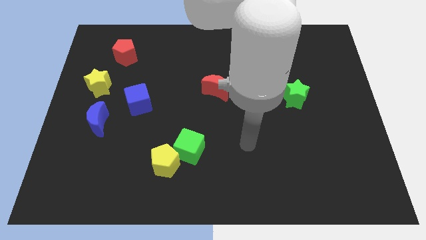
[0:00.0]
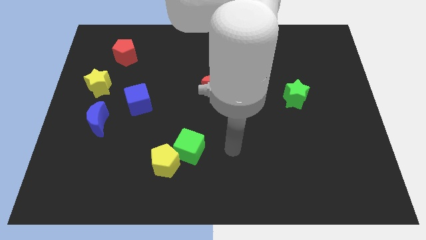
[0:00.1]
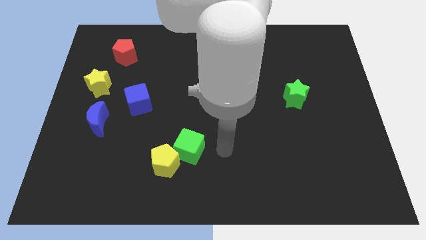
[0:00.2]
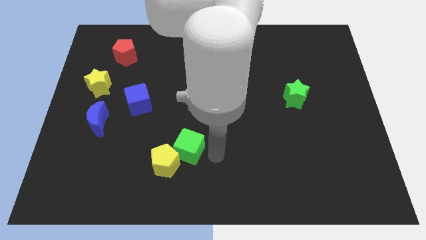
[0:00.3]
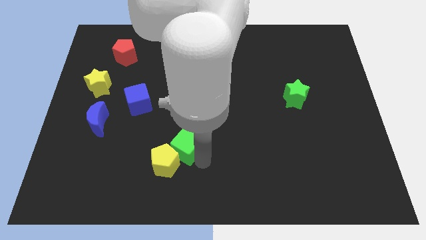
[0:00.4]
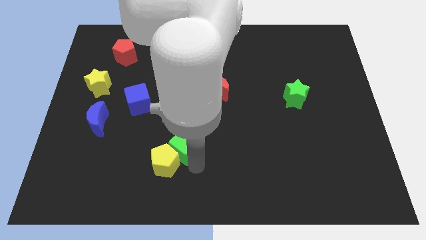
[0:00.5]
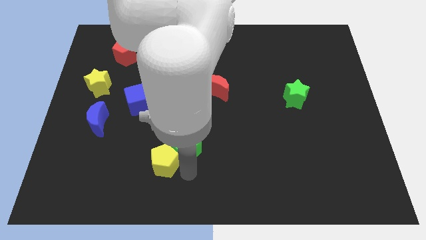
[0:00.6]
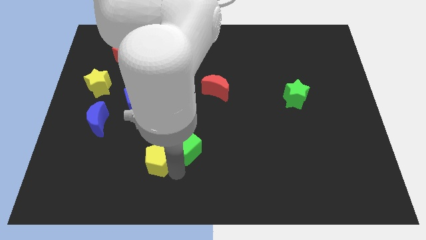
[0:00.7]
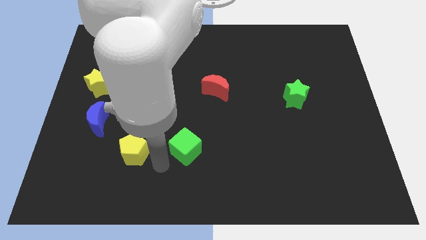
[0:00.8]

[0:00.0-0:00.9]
separate the green cube from the yellow pentagon

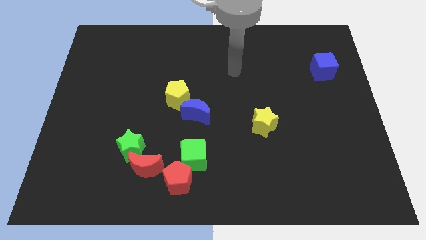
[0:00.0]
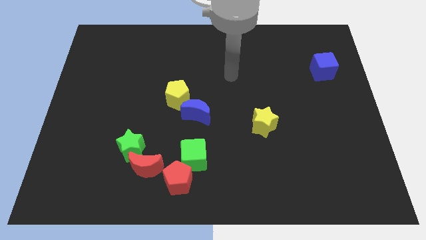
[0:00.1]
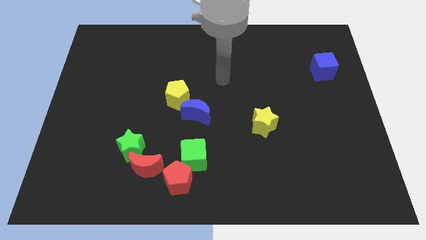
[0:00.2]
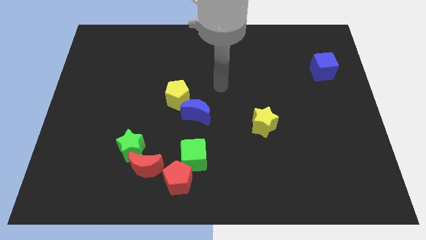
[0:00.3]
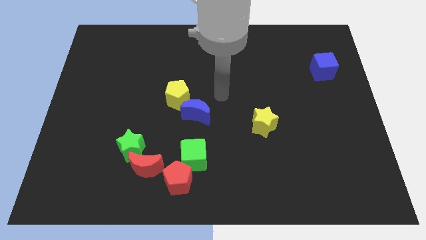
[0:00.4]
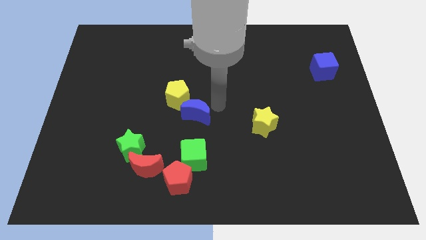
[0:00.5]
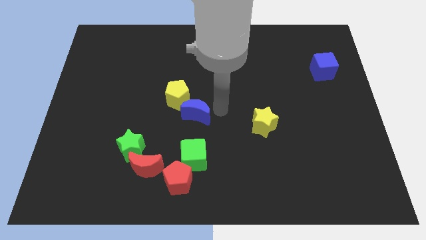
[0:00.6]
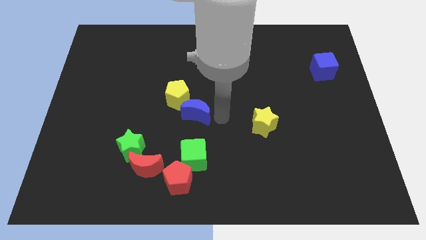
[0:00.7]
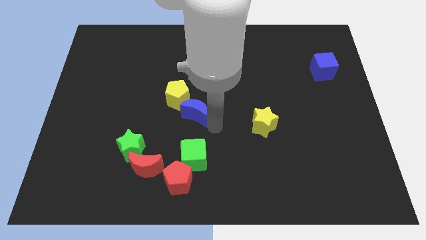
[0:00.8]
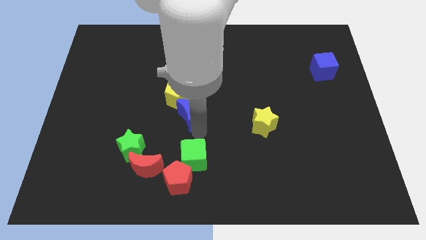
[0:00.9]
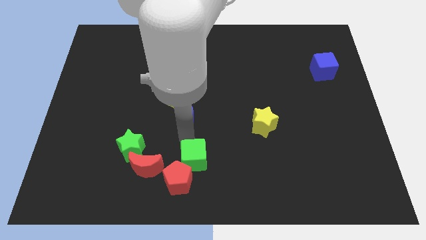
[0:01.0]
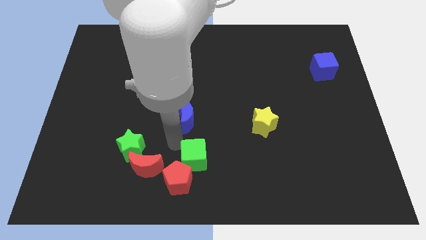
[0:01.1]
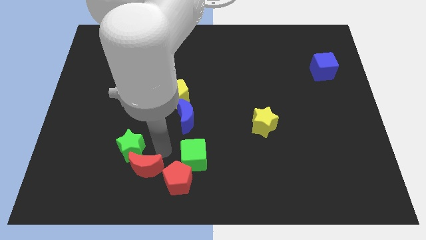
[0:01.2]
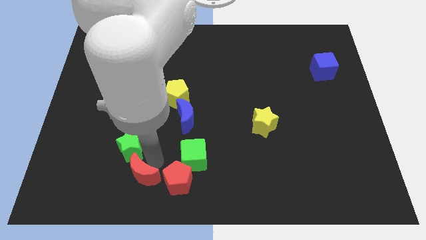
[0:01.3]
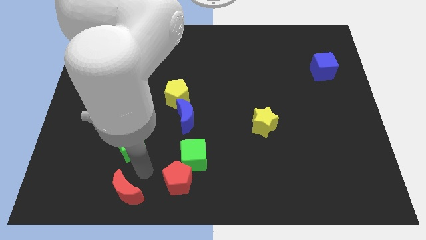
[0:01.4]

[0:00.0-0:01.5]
separate the green star from the red moon

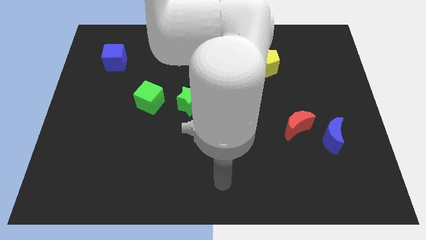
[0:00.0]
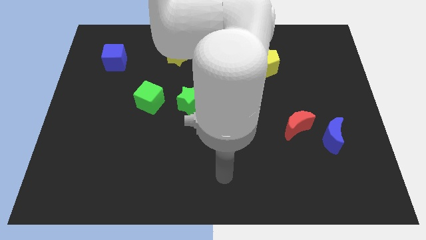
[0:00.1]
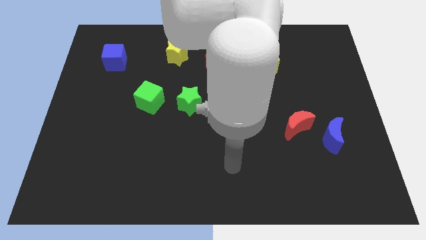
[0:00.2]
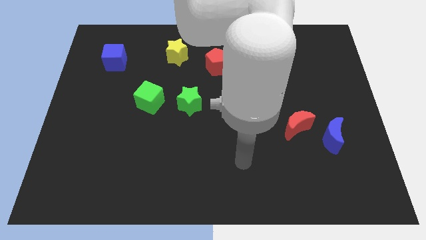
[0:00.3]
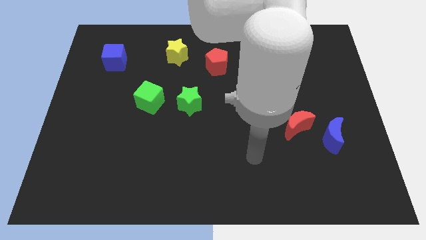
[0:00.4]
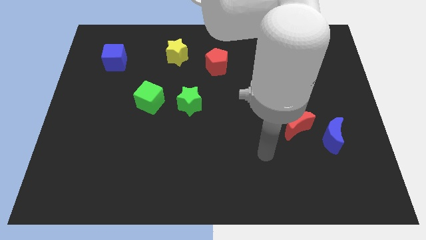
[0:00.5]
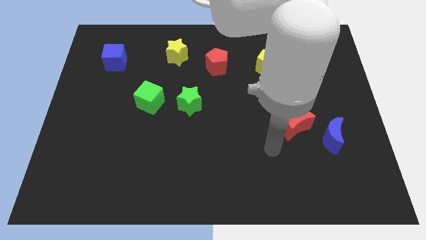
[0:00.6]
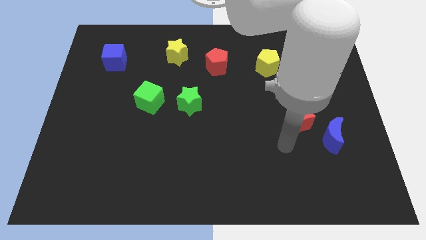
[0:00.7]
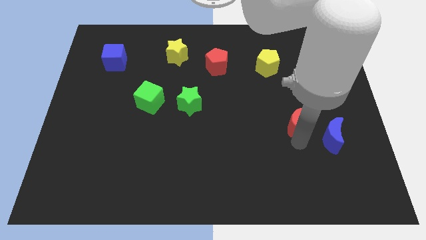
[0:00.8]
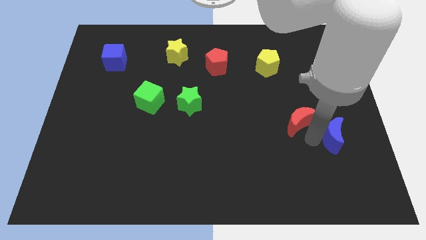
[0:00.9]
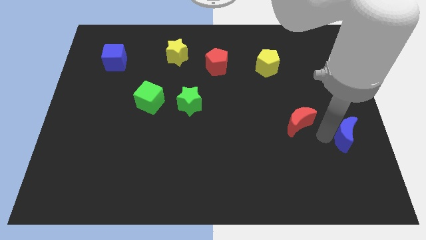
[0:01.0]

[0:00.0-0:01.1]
pull the red moon apart from the blue moon

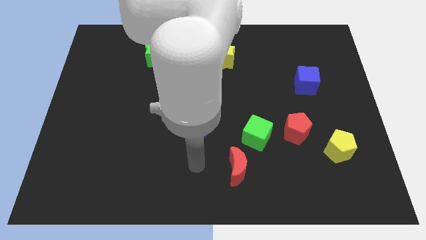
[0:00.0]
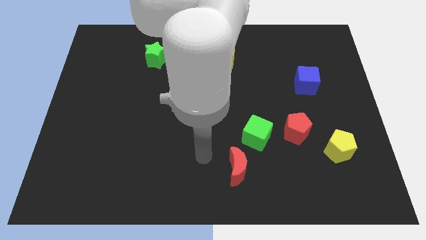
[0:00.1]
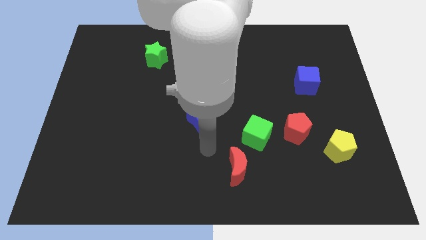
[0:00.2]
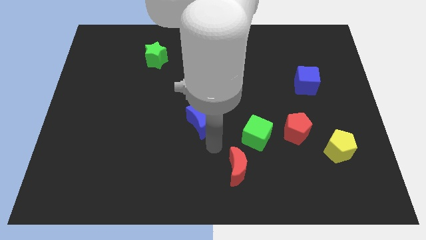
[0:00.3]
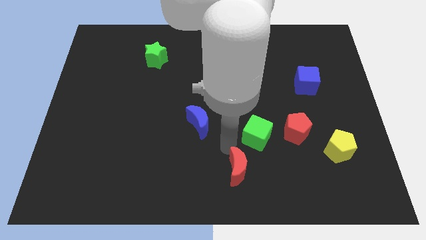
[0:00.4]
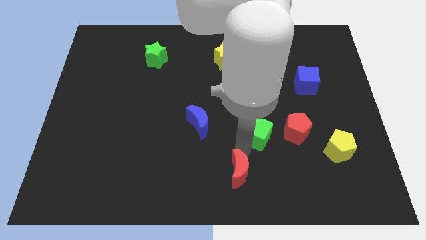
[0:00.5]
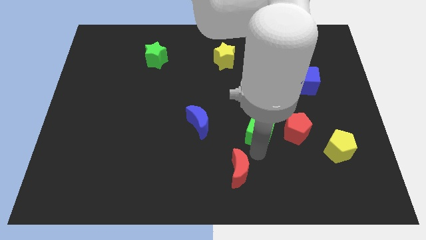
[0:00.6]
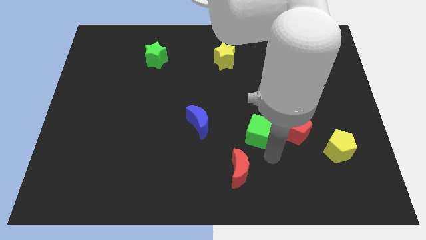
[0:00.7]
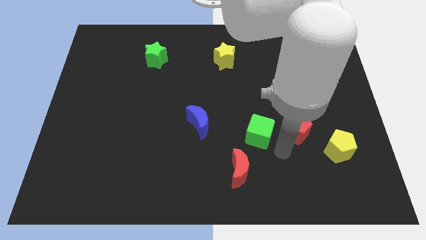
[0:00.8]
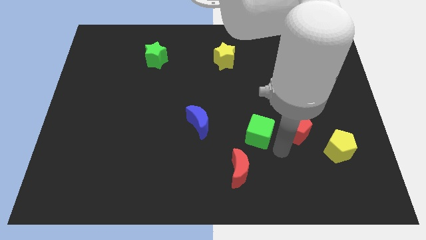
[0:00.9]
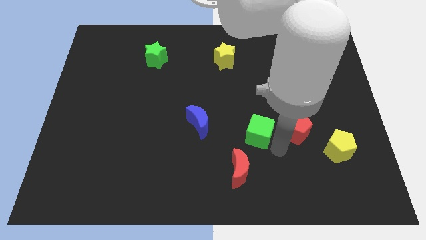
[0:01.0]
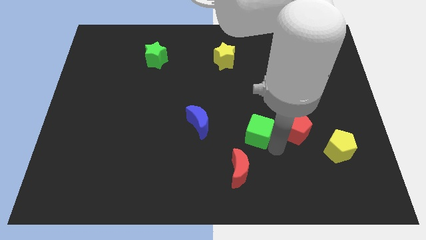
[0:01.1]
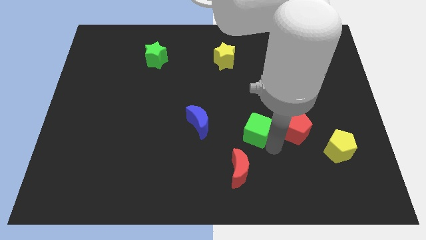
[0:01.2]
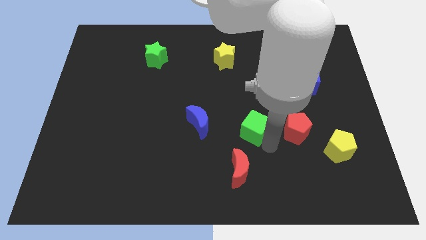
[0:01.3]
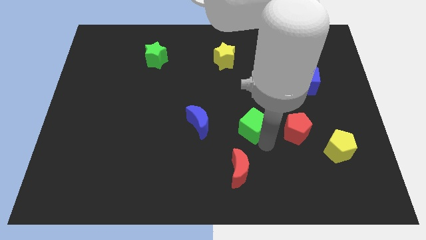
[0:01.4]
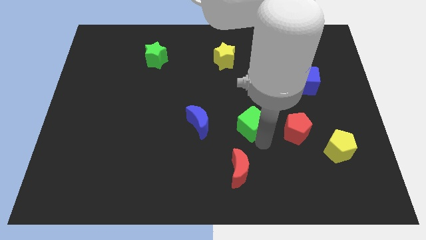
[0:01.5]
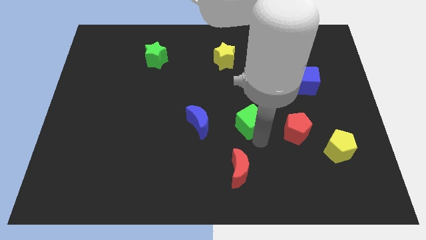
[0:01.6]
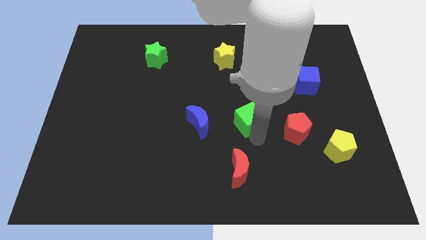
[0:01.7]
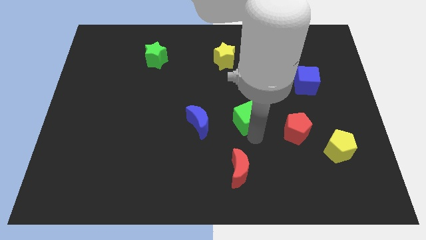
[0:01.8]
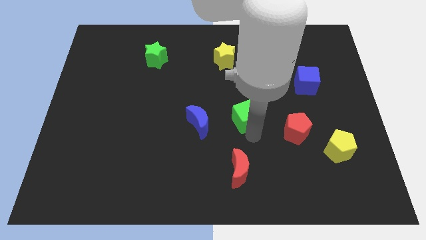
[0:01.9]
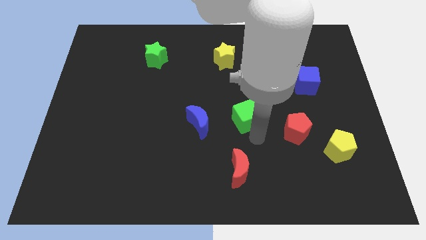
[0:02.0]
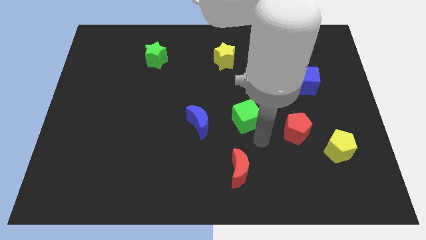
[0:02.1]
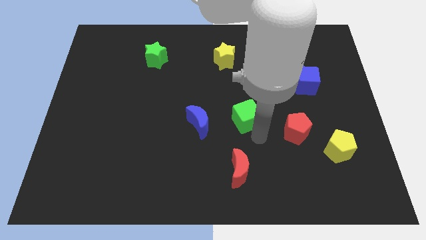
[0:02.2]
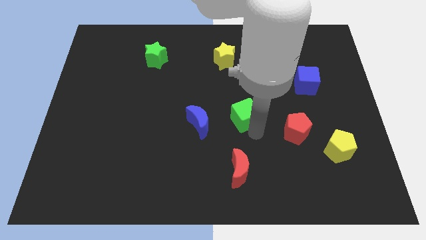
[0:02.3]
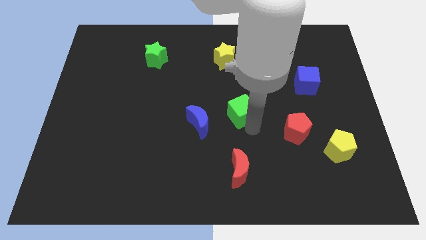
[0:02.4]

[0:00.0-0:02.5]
pull the green cube apart from the red pentagon and red moon

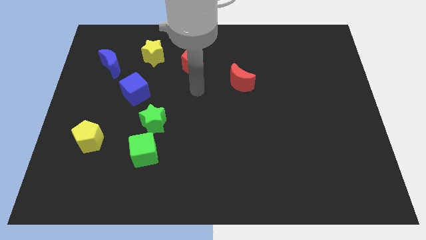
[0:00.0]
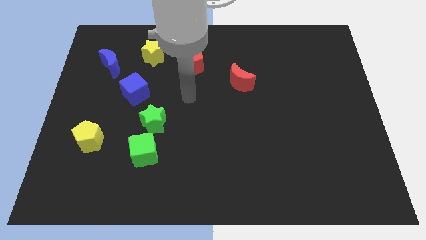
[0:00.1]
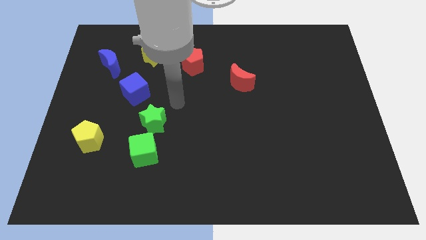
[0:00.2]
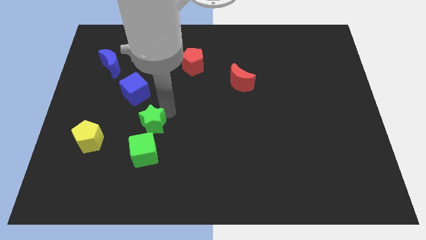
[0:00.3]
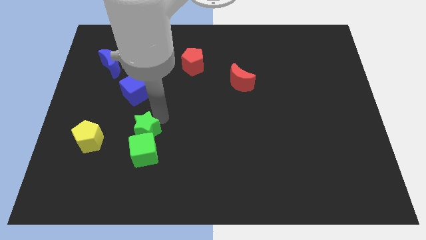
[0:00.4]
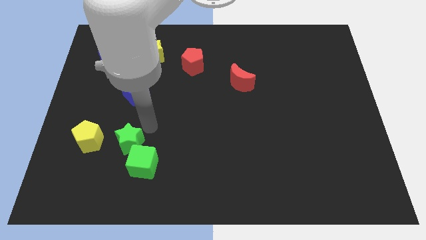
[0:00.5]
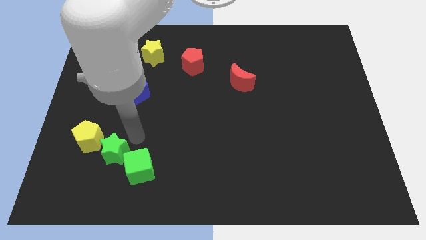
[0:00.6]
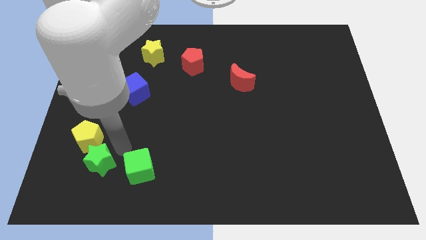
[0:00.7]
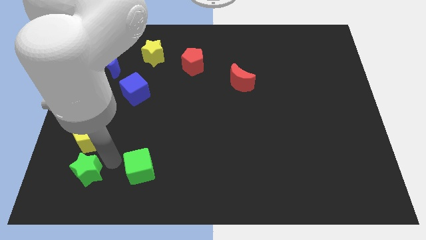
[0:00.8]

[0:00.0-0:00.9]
separate the green cube from the green star

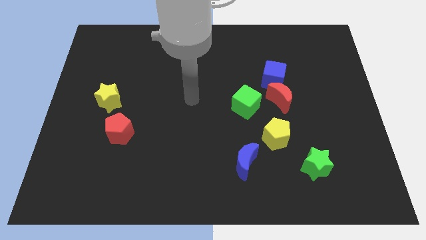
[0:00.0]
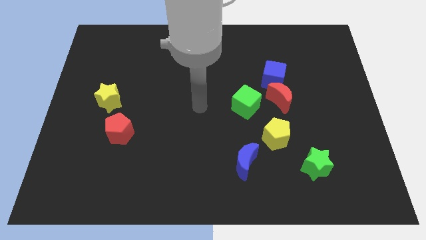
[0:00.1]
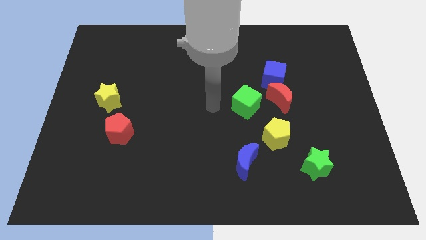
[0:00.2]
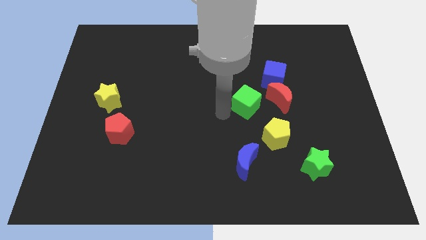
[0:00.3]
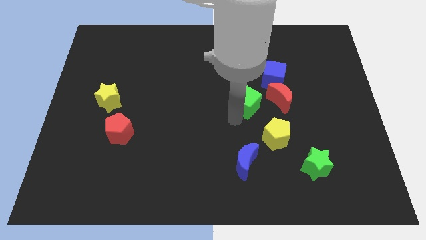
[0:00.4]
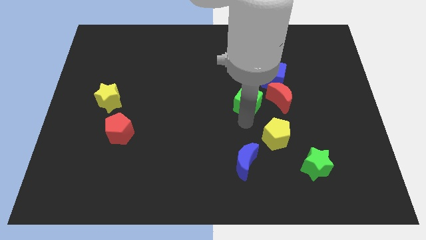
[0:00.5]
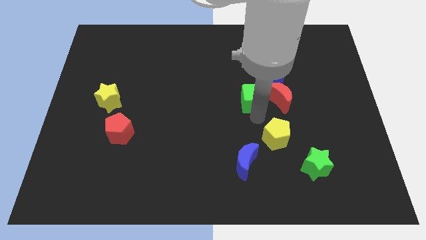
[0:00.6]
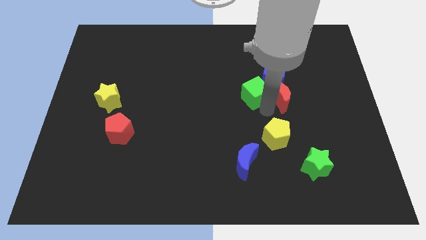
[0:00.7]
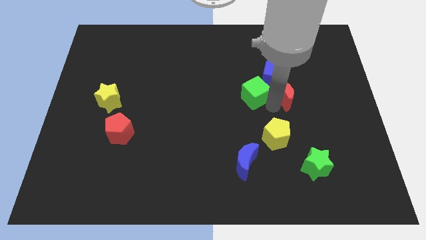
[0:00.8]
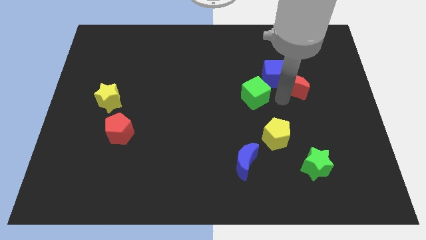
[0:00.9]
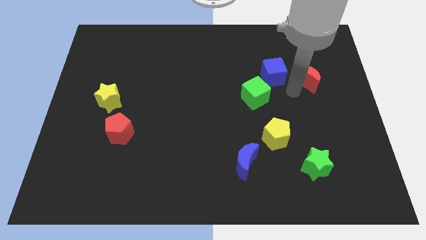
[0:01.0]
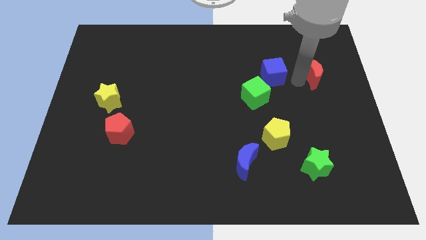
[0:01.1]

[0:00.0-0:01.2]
separate the blue cube from the red moon

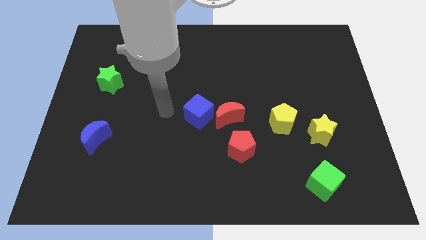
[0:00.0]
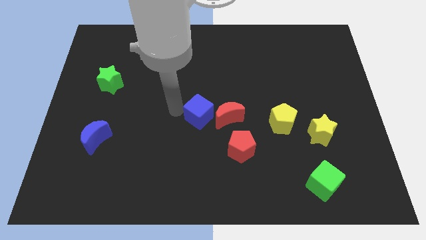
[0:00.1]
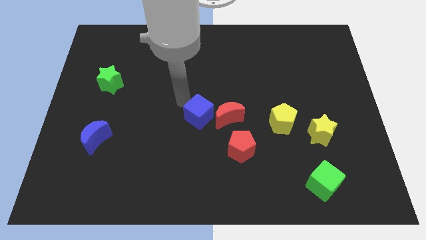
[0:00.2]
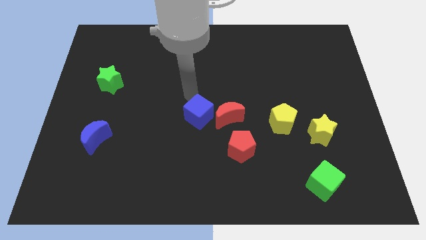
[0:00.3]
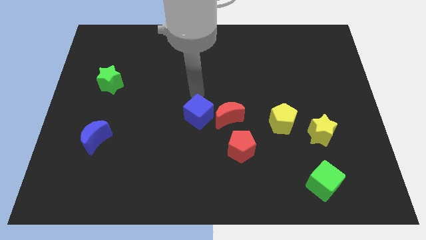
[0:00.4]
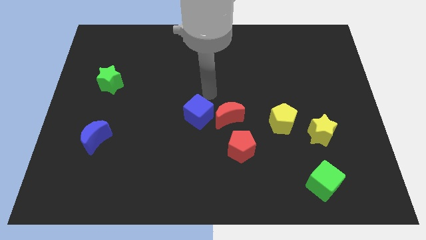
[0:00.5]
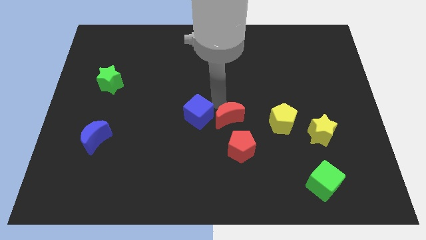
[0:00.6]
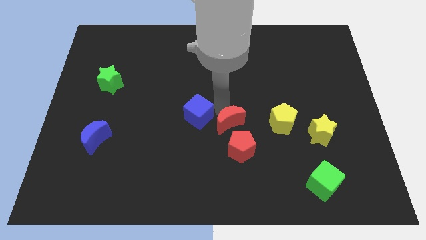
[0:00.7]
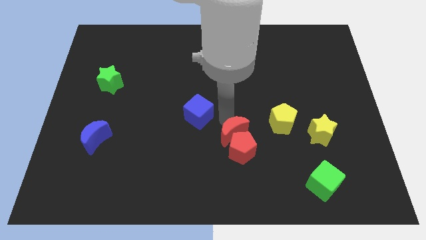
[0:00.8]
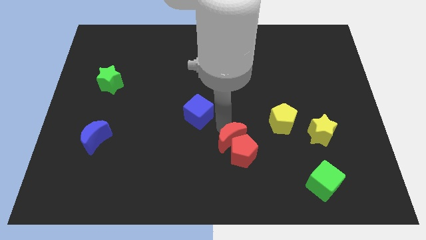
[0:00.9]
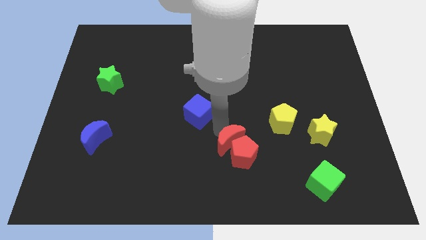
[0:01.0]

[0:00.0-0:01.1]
move the blue cube away from the red moon
